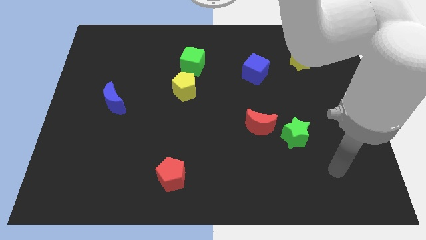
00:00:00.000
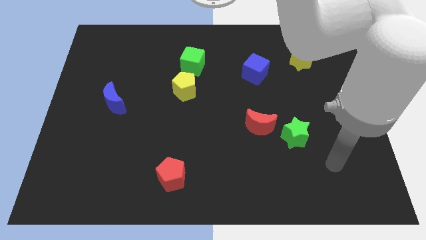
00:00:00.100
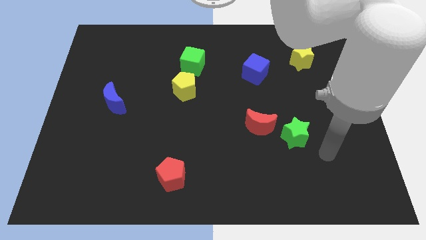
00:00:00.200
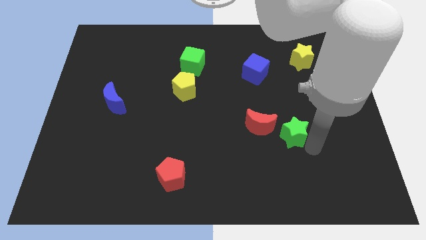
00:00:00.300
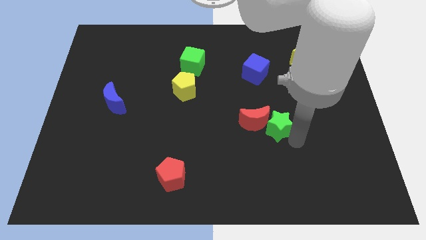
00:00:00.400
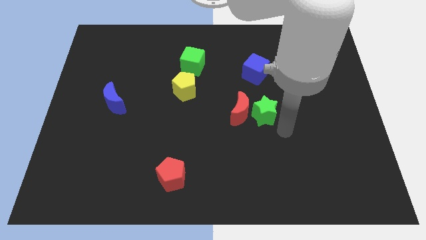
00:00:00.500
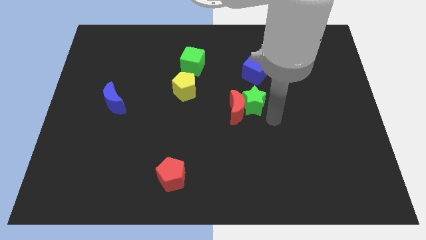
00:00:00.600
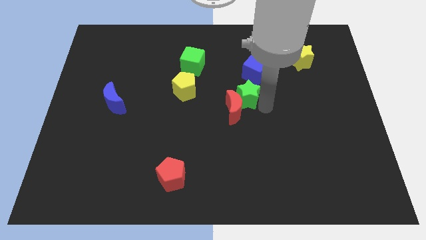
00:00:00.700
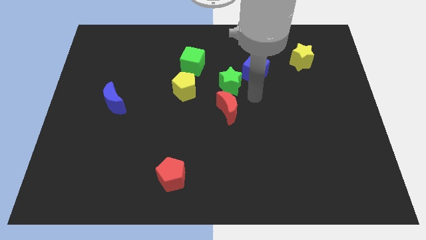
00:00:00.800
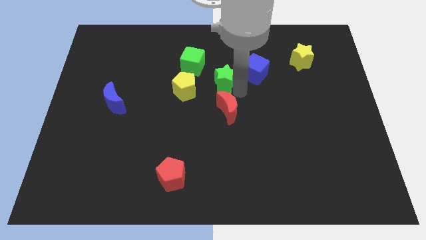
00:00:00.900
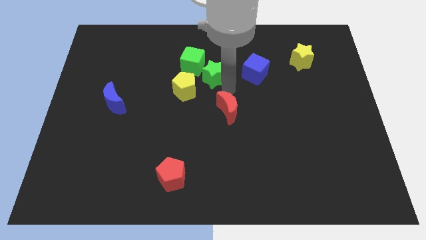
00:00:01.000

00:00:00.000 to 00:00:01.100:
separate the red moon from the green star

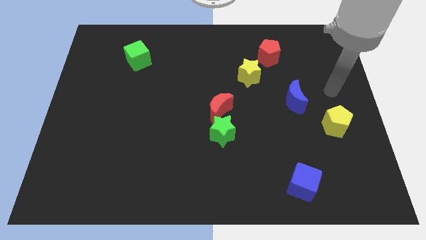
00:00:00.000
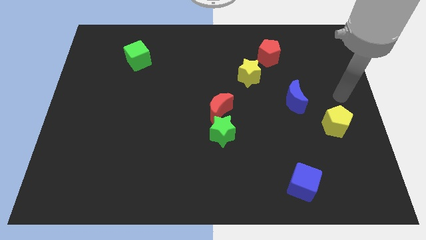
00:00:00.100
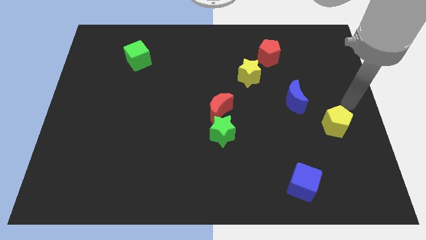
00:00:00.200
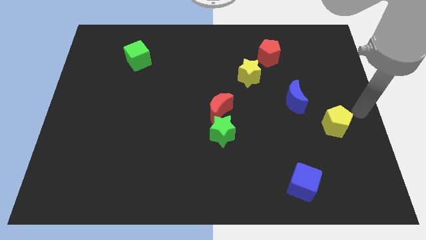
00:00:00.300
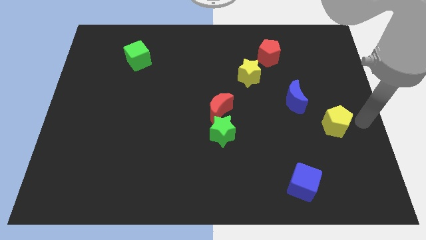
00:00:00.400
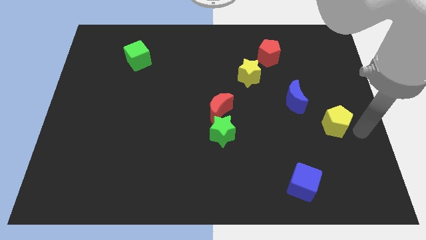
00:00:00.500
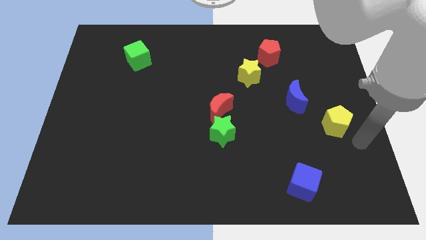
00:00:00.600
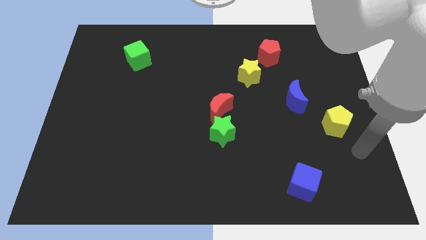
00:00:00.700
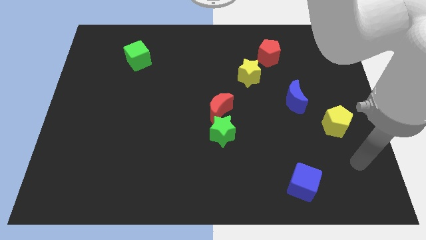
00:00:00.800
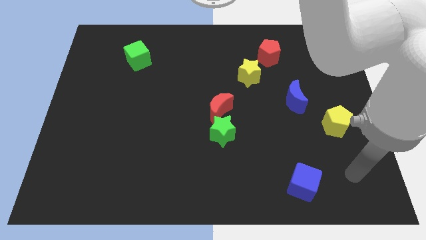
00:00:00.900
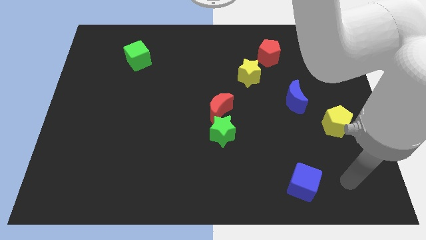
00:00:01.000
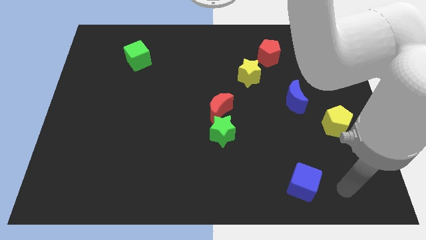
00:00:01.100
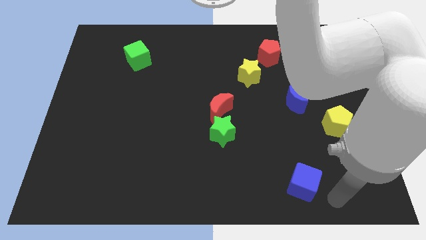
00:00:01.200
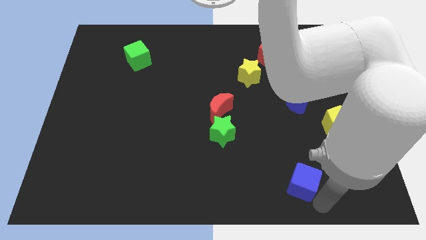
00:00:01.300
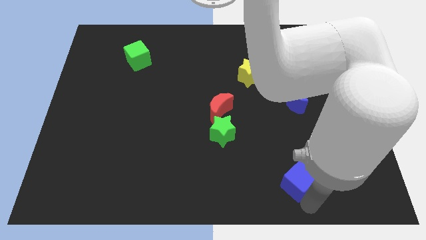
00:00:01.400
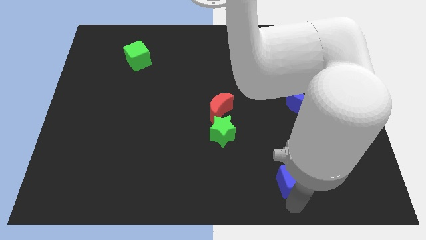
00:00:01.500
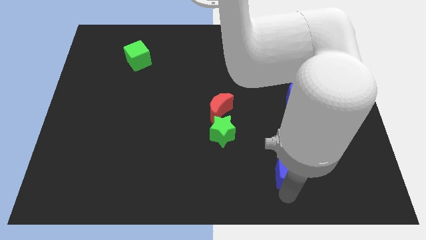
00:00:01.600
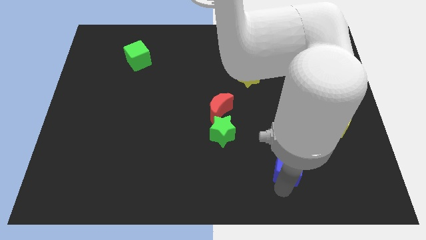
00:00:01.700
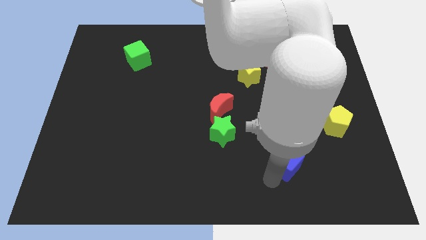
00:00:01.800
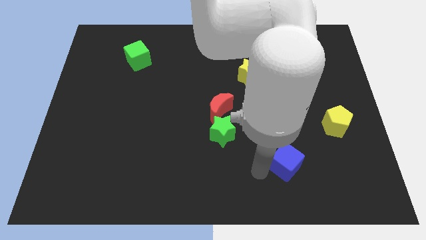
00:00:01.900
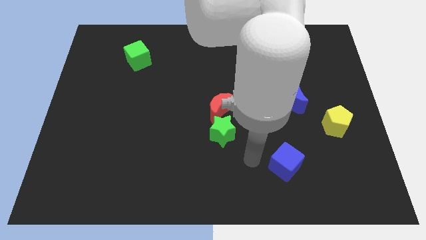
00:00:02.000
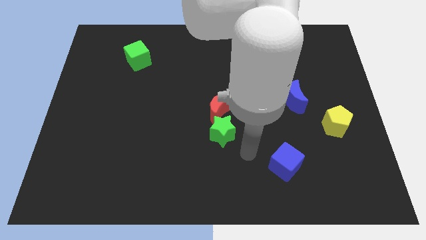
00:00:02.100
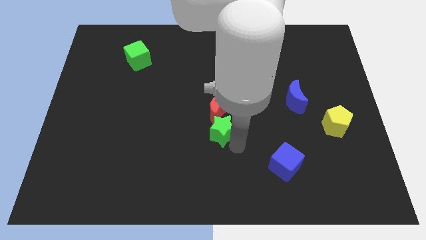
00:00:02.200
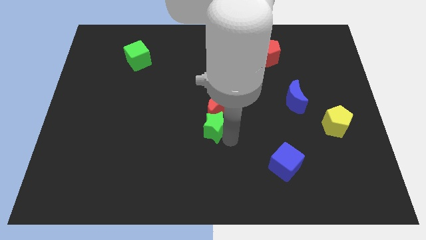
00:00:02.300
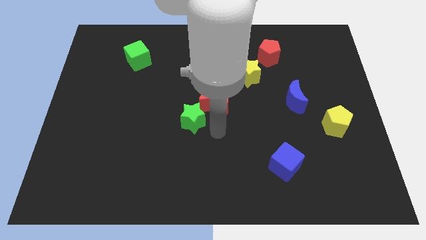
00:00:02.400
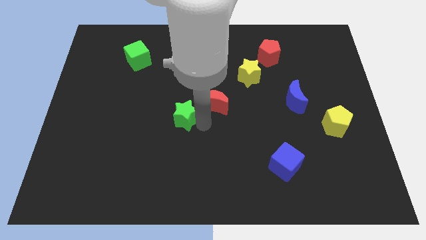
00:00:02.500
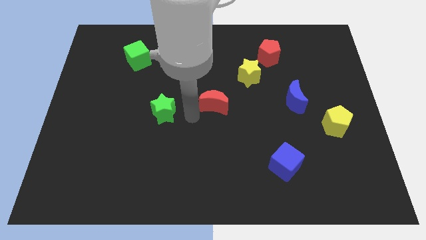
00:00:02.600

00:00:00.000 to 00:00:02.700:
move the red moon away from the green star

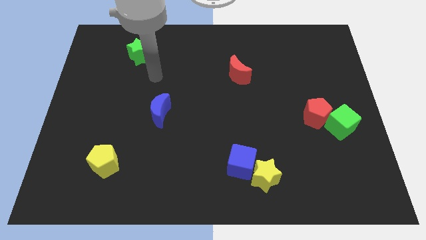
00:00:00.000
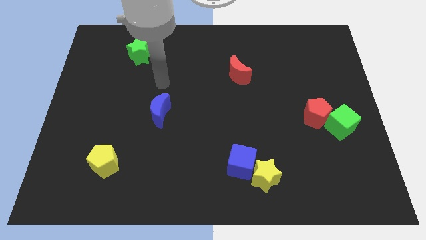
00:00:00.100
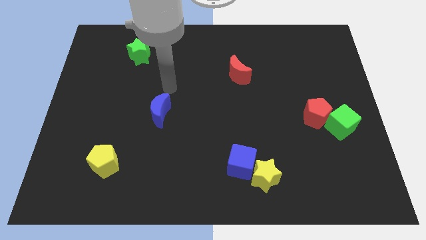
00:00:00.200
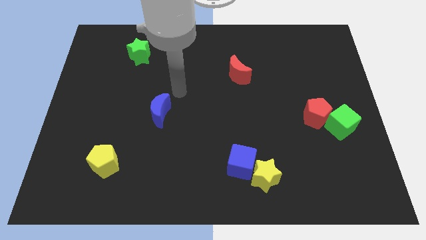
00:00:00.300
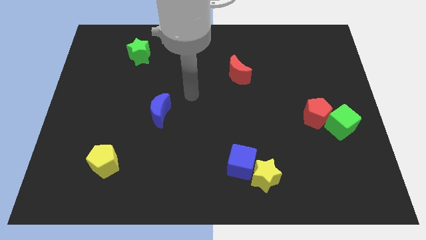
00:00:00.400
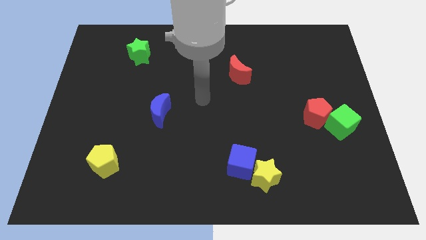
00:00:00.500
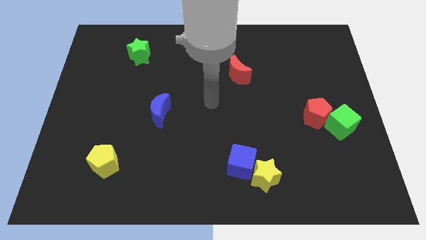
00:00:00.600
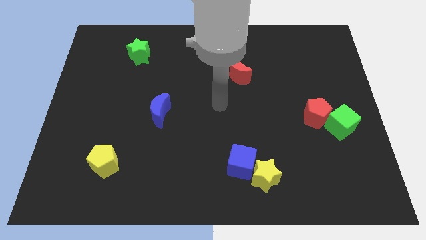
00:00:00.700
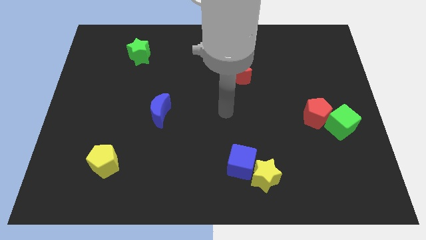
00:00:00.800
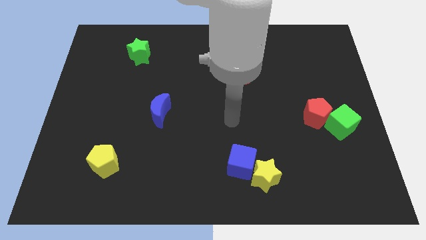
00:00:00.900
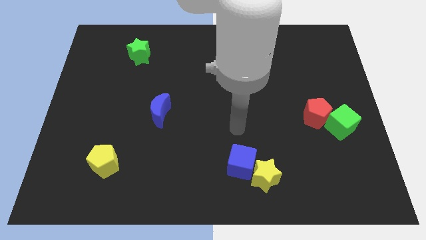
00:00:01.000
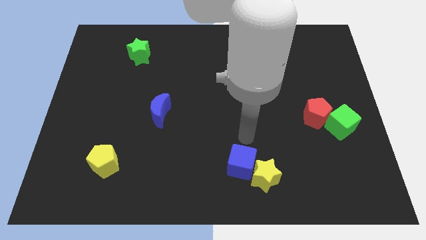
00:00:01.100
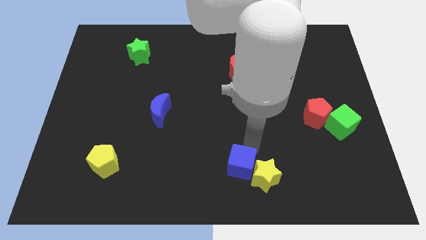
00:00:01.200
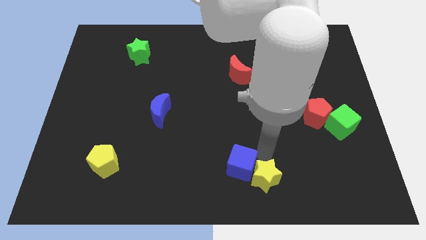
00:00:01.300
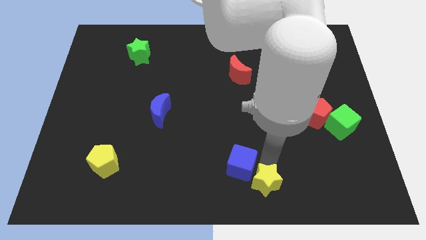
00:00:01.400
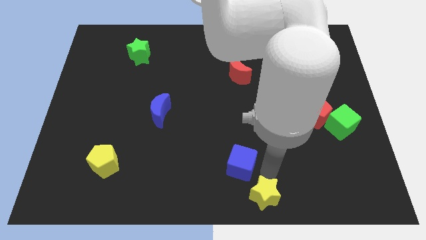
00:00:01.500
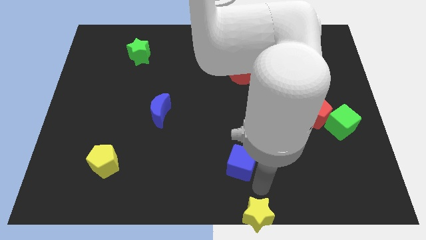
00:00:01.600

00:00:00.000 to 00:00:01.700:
move the blue cube away from the yellow star

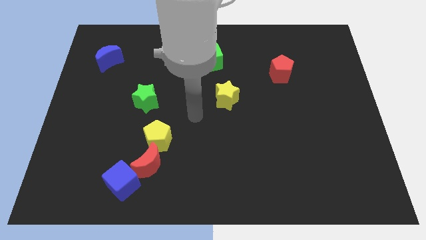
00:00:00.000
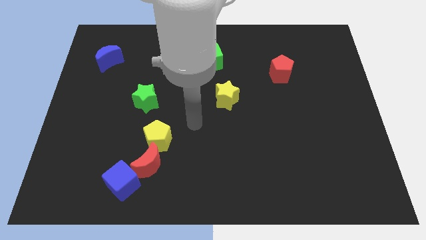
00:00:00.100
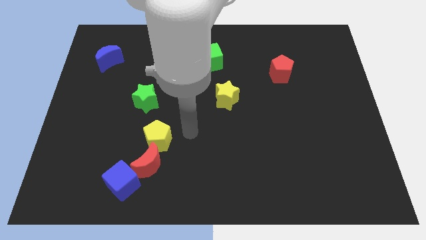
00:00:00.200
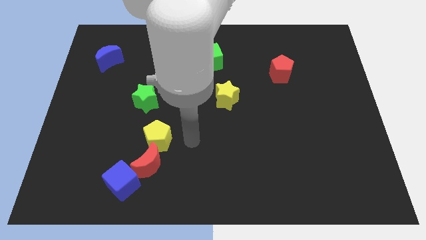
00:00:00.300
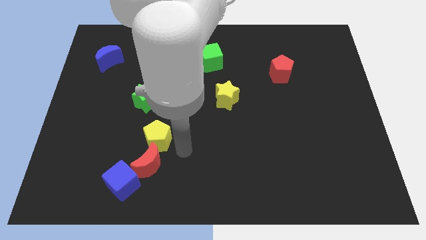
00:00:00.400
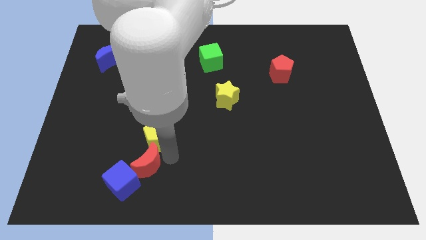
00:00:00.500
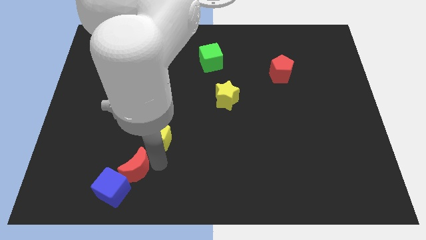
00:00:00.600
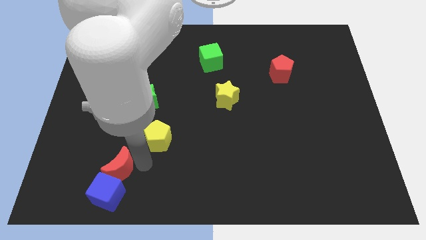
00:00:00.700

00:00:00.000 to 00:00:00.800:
move the yellow pentagon away from the red moon

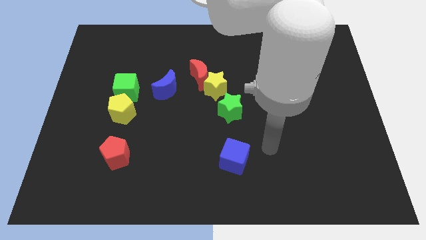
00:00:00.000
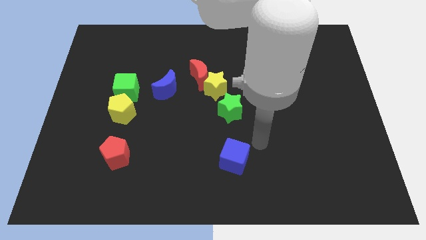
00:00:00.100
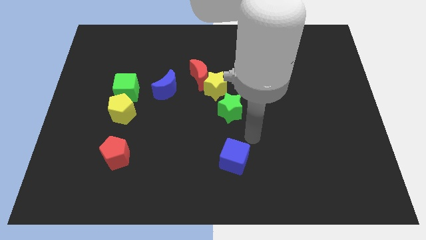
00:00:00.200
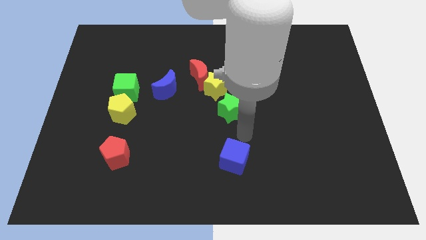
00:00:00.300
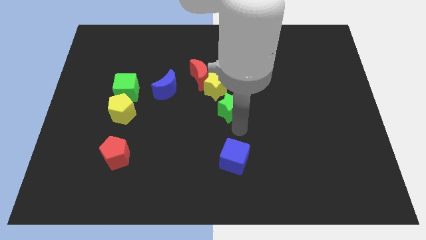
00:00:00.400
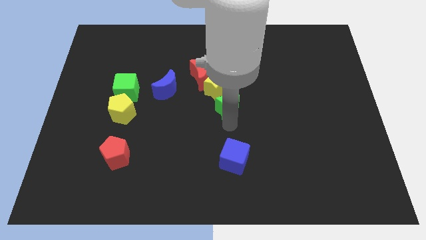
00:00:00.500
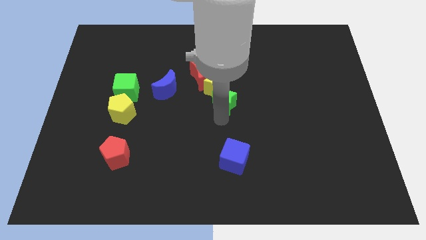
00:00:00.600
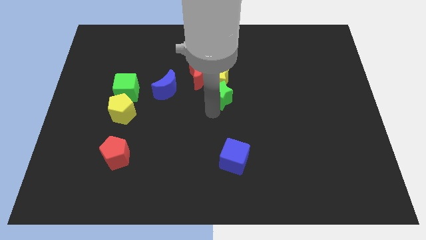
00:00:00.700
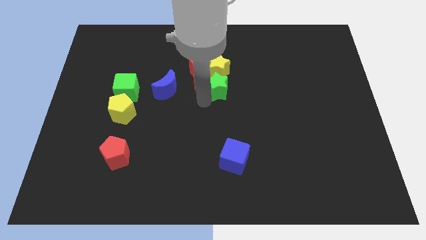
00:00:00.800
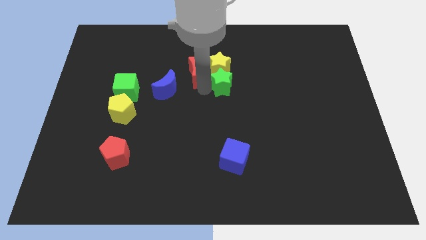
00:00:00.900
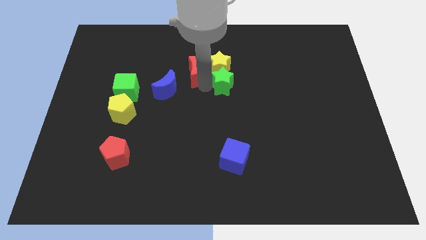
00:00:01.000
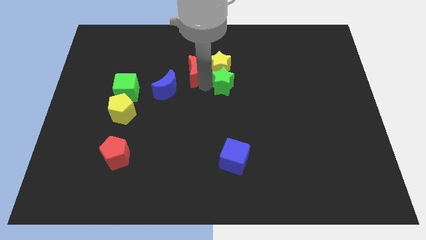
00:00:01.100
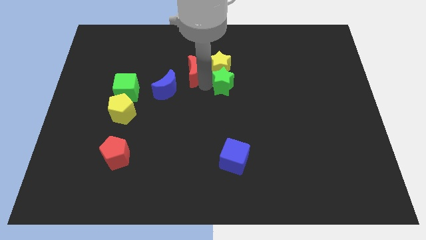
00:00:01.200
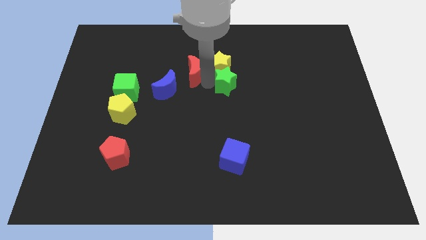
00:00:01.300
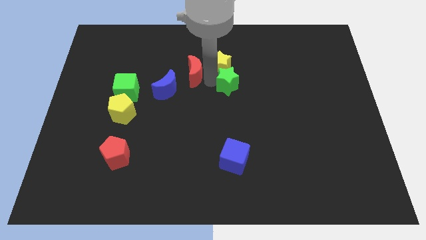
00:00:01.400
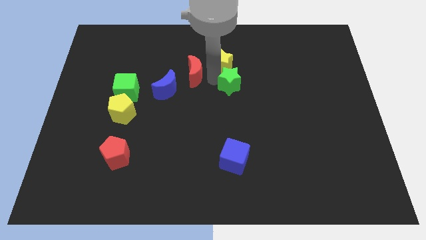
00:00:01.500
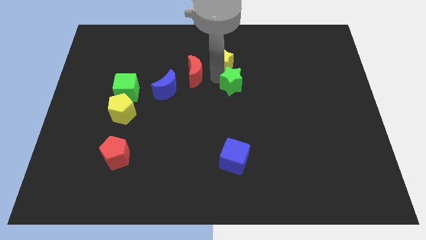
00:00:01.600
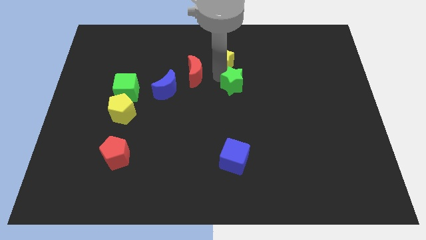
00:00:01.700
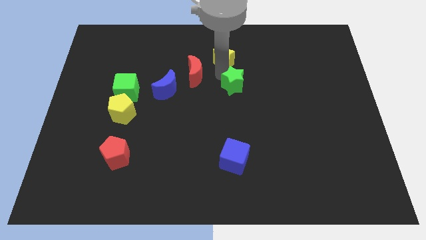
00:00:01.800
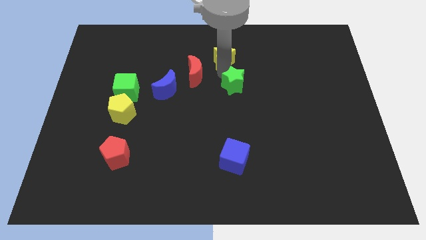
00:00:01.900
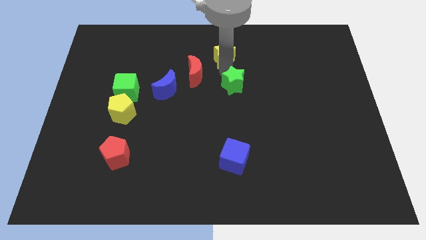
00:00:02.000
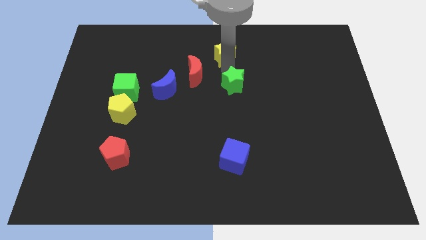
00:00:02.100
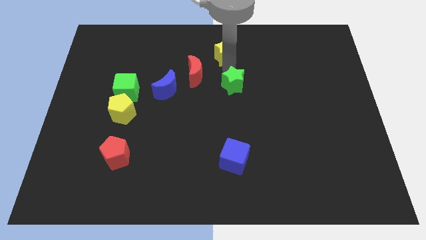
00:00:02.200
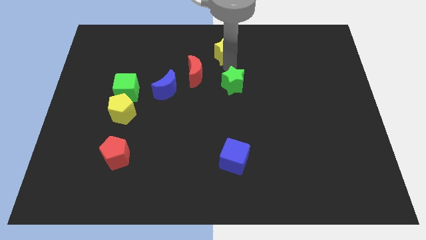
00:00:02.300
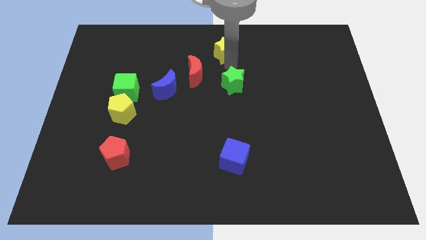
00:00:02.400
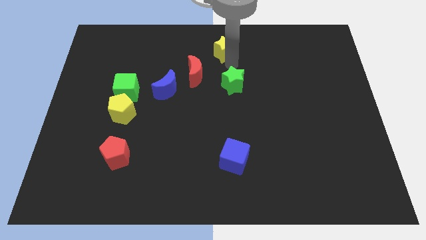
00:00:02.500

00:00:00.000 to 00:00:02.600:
move the yellow star away from the red moon and green star

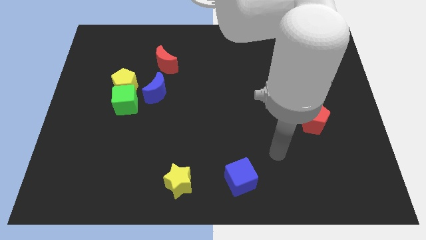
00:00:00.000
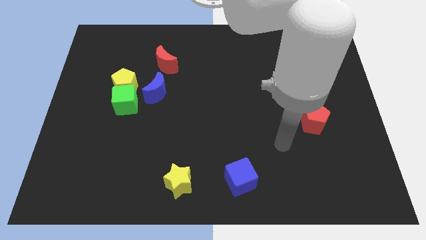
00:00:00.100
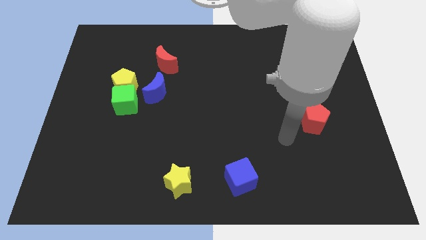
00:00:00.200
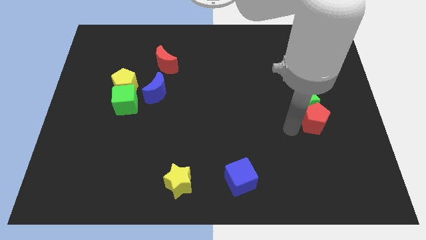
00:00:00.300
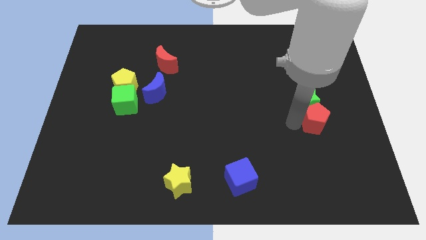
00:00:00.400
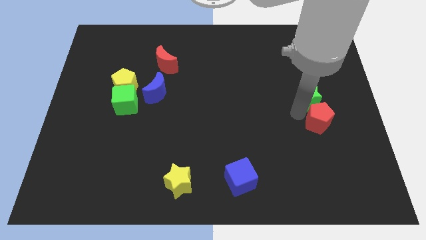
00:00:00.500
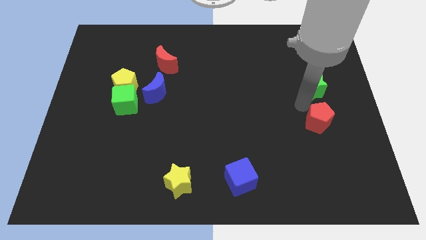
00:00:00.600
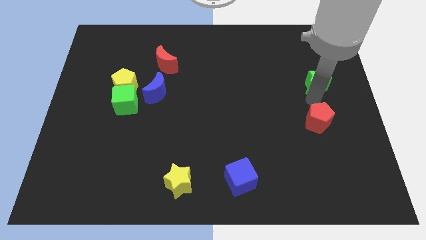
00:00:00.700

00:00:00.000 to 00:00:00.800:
pull the red pentagon apart from the green star
